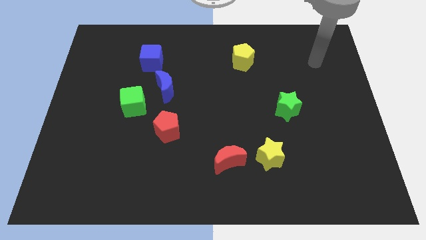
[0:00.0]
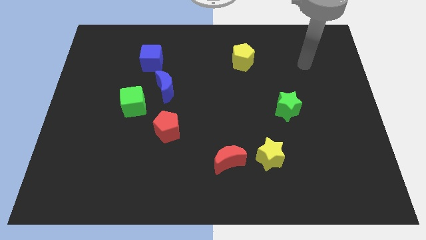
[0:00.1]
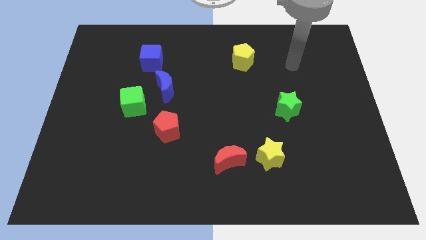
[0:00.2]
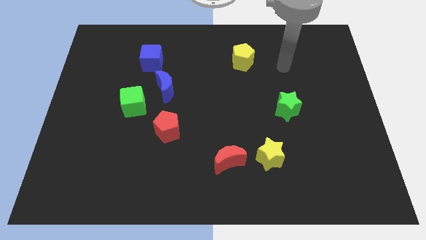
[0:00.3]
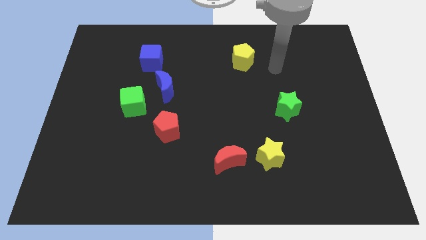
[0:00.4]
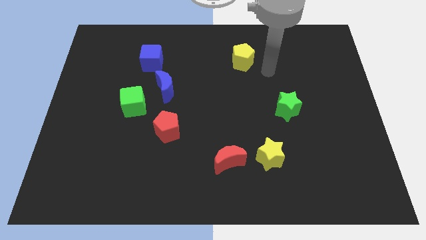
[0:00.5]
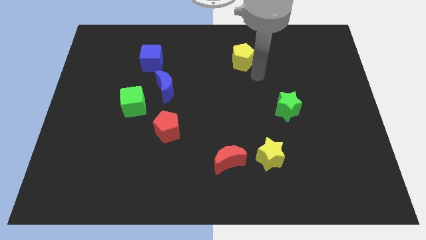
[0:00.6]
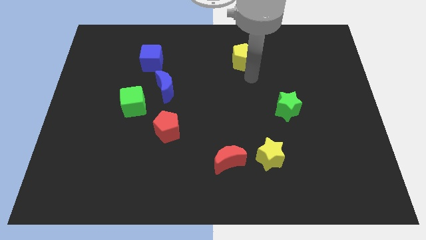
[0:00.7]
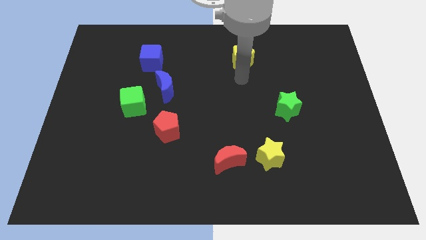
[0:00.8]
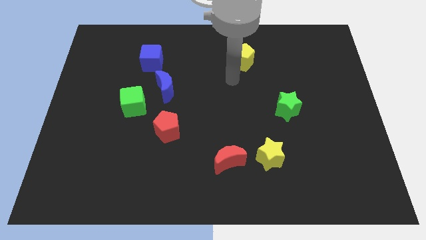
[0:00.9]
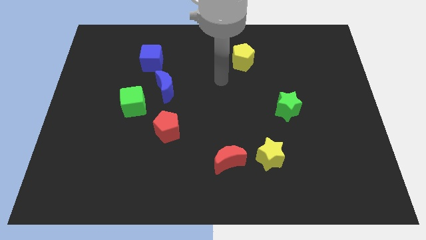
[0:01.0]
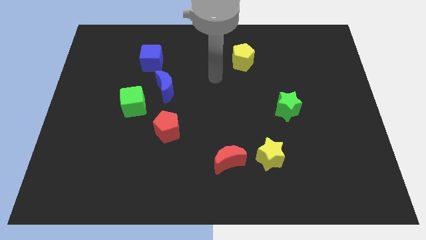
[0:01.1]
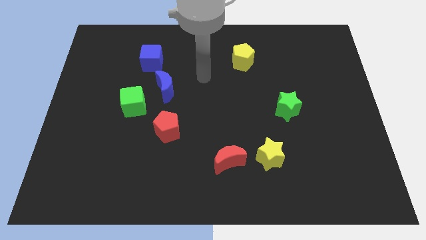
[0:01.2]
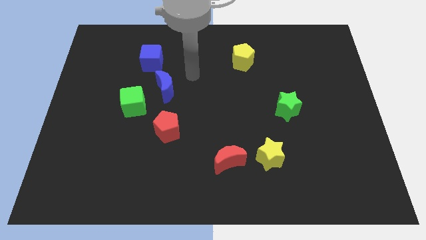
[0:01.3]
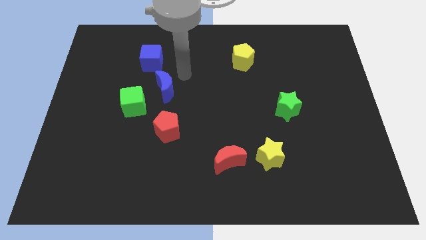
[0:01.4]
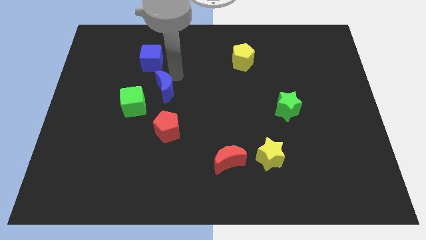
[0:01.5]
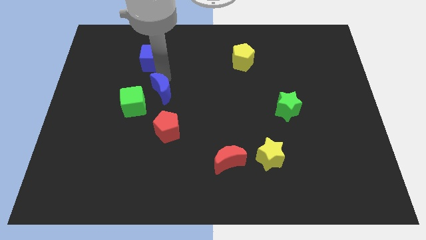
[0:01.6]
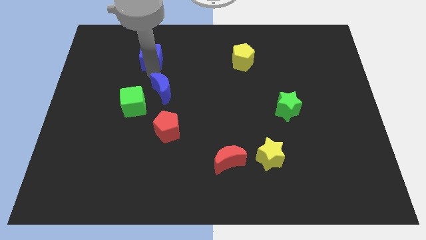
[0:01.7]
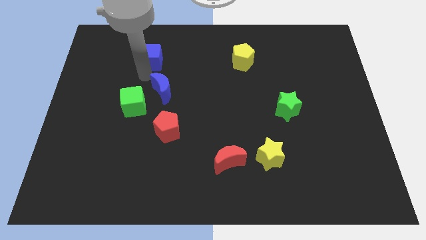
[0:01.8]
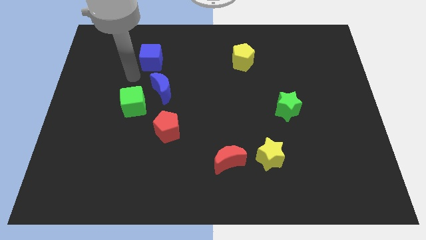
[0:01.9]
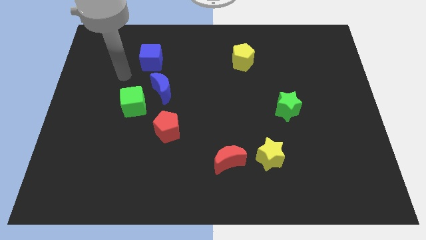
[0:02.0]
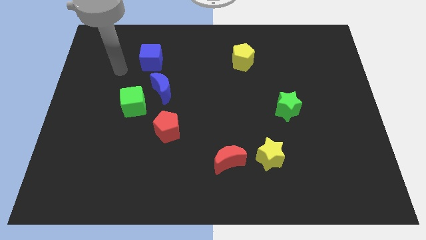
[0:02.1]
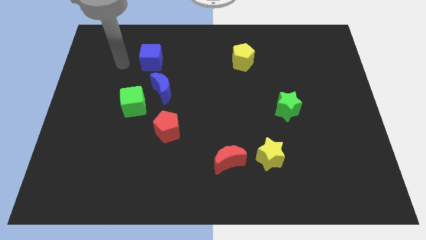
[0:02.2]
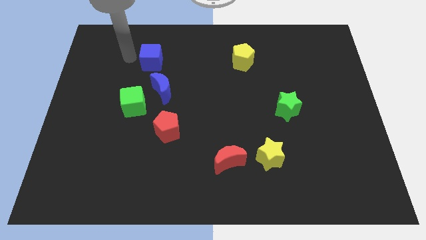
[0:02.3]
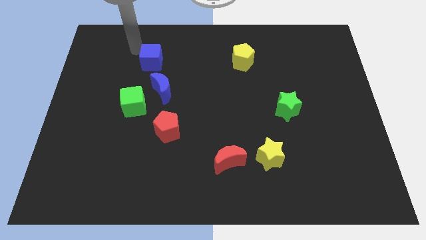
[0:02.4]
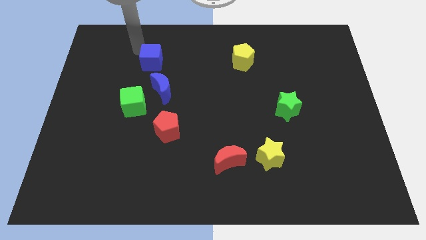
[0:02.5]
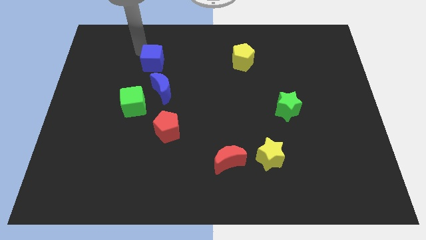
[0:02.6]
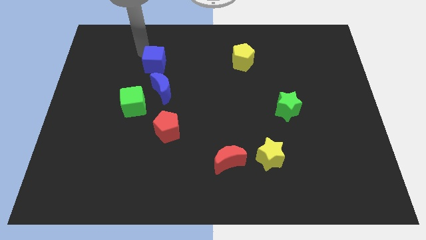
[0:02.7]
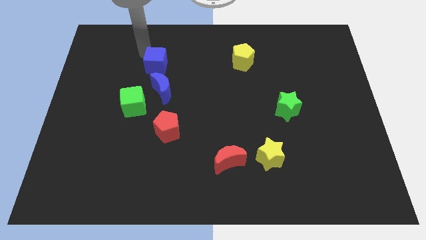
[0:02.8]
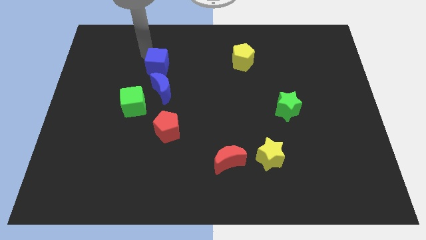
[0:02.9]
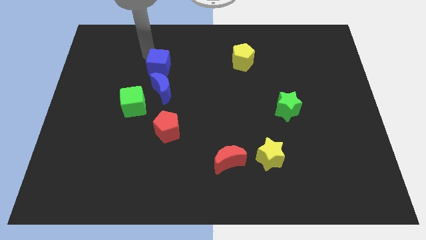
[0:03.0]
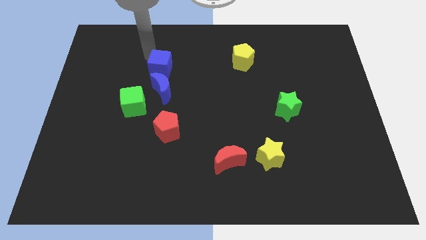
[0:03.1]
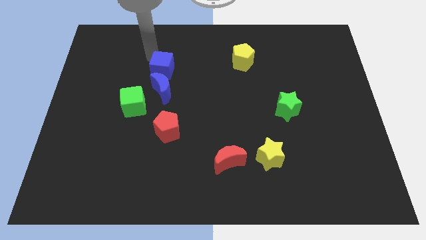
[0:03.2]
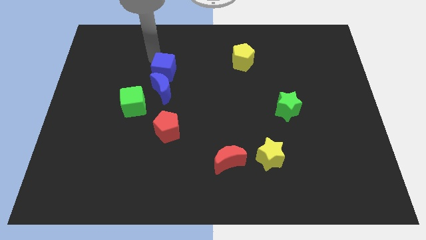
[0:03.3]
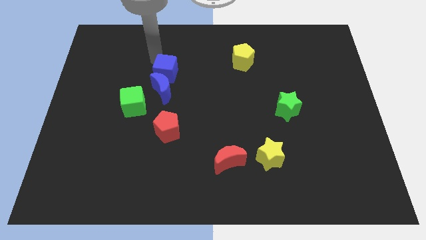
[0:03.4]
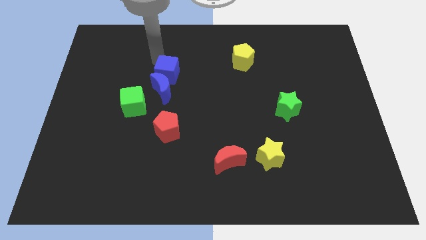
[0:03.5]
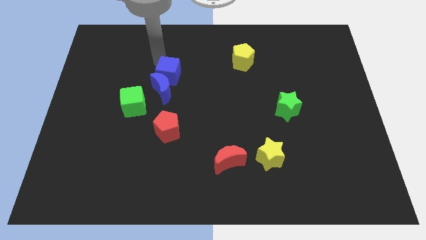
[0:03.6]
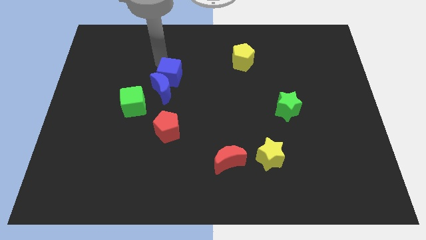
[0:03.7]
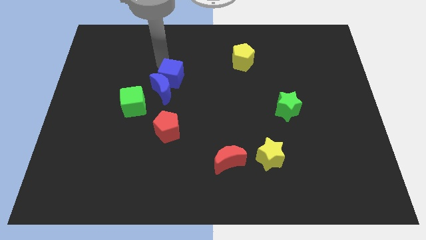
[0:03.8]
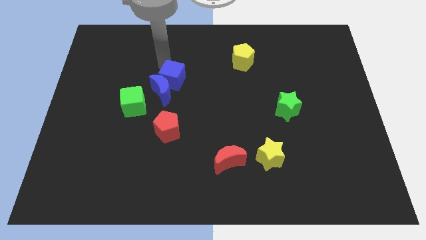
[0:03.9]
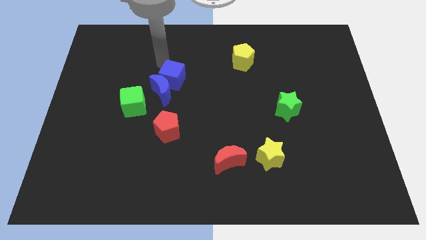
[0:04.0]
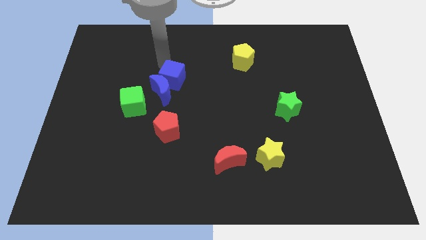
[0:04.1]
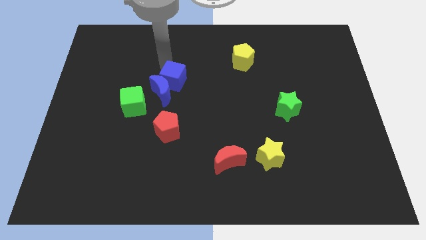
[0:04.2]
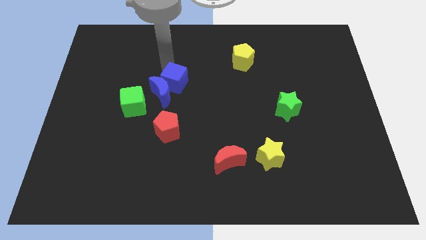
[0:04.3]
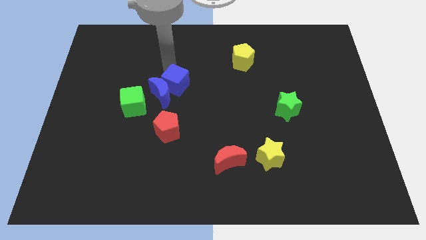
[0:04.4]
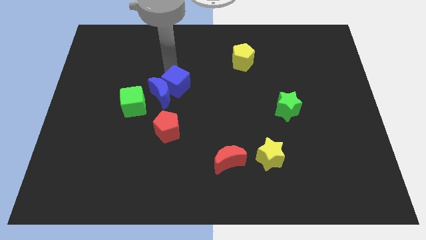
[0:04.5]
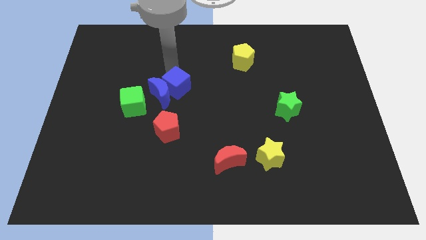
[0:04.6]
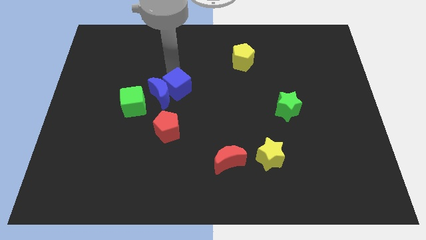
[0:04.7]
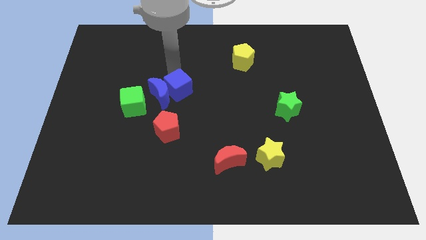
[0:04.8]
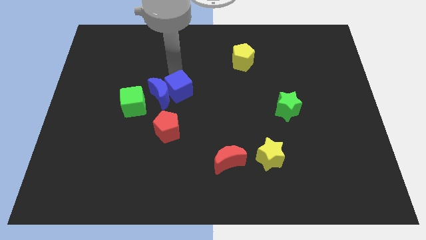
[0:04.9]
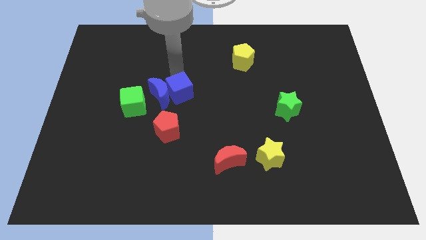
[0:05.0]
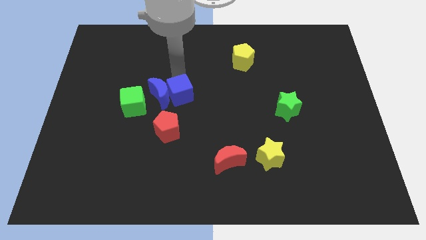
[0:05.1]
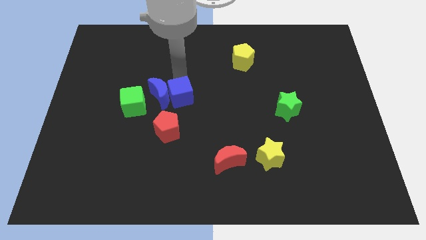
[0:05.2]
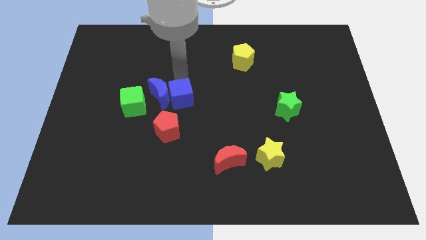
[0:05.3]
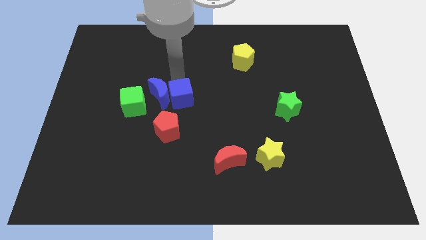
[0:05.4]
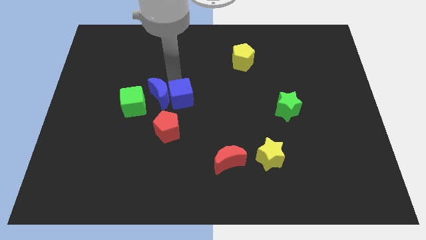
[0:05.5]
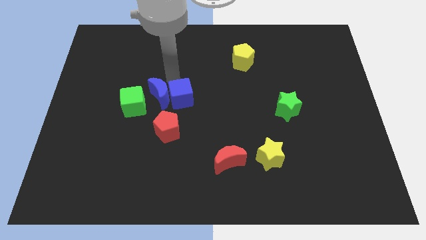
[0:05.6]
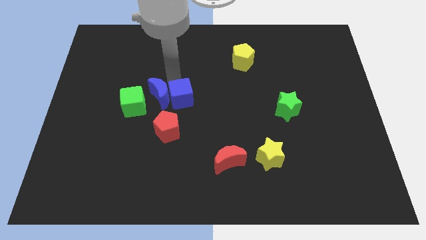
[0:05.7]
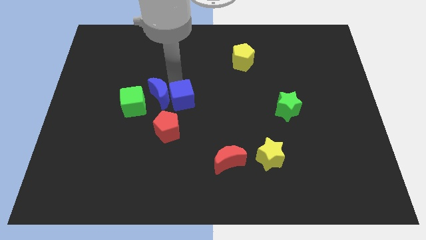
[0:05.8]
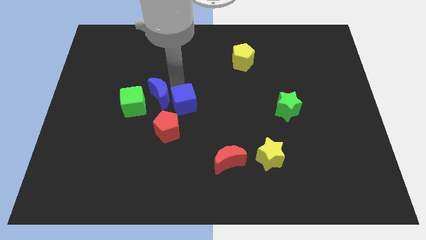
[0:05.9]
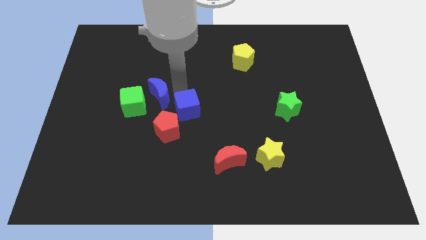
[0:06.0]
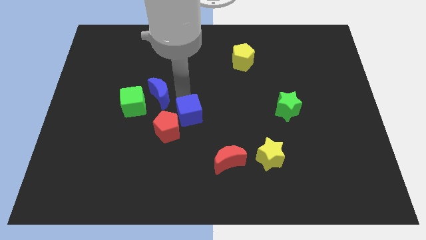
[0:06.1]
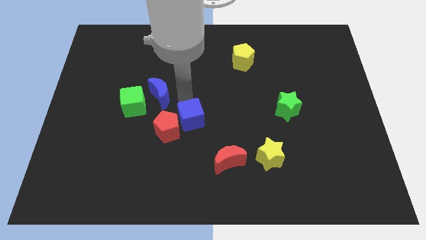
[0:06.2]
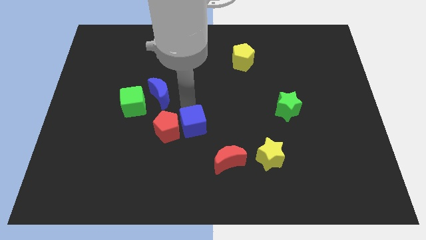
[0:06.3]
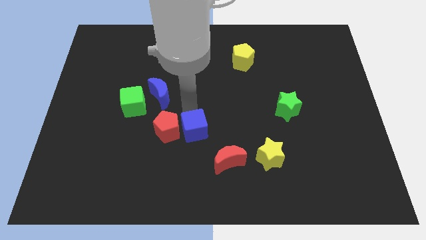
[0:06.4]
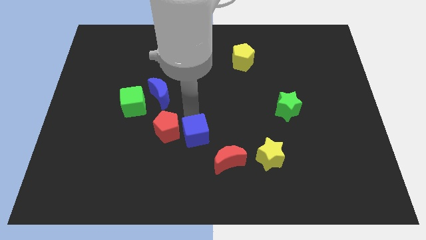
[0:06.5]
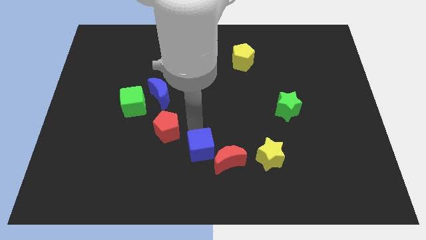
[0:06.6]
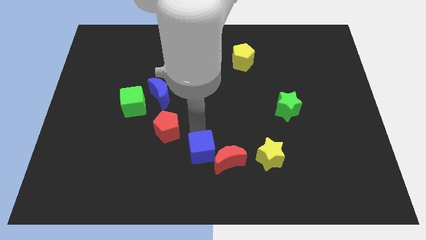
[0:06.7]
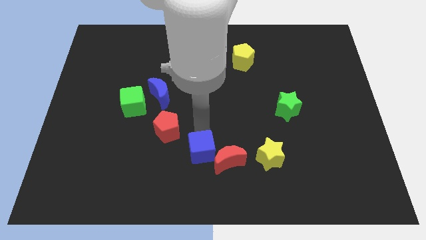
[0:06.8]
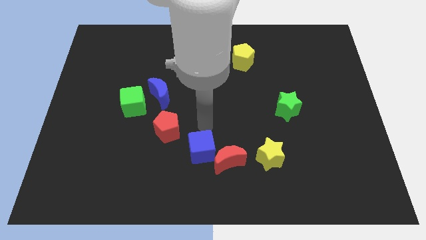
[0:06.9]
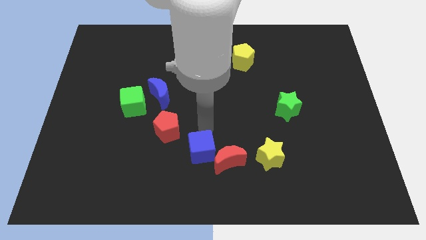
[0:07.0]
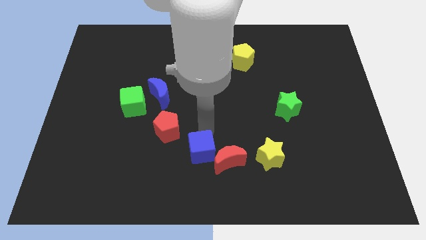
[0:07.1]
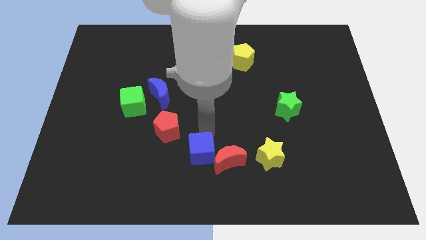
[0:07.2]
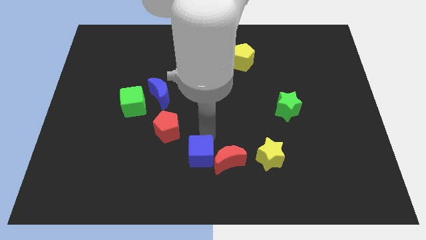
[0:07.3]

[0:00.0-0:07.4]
slide the blue cube to the bottom
